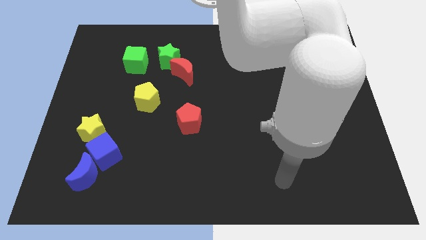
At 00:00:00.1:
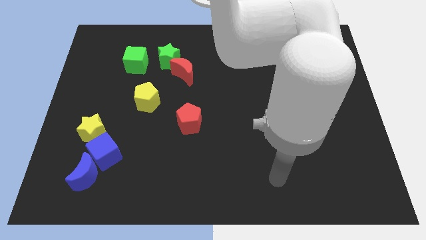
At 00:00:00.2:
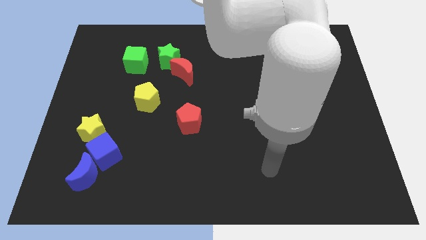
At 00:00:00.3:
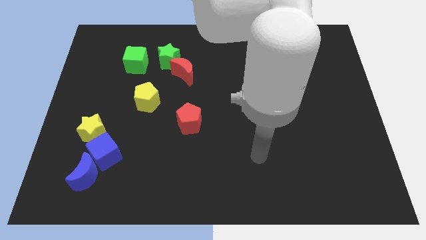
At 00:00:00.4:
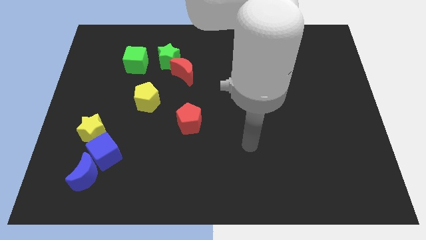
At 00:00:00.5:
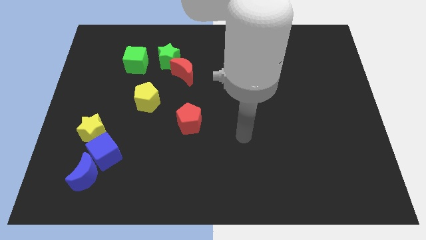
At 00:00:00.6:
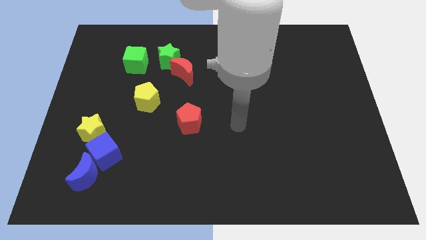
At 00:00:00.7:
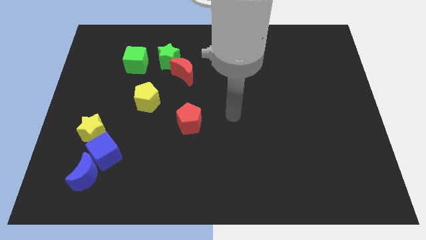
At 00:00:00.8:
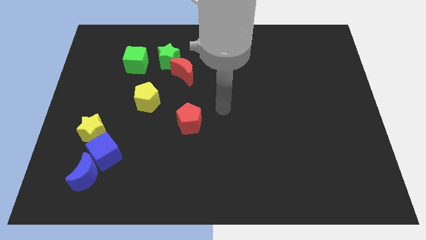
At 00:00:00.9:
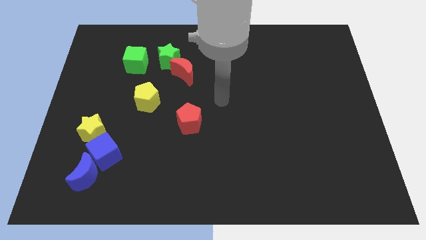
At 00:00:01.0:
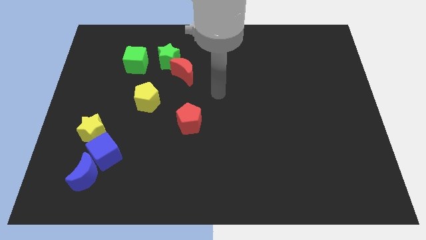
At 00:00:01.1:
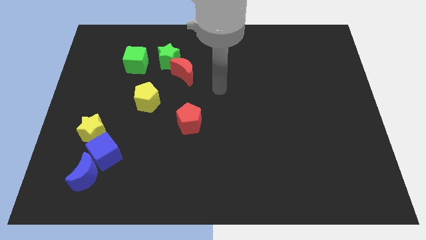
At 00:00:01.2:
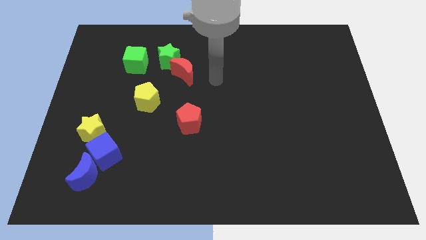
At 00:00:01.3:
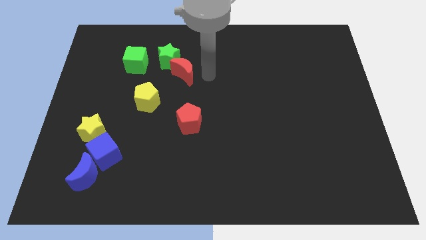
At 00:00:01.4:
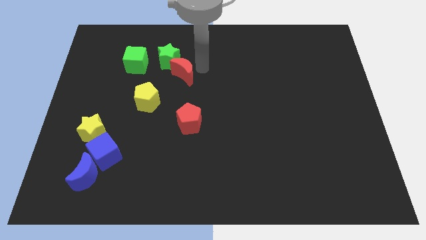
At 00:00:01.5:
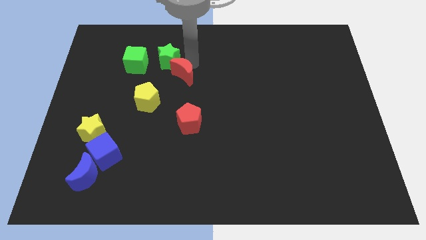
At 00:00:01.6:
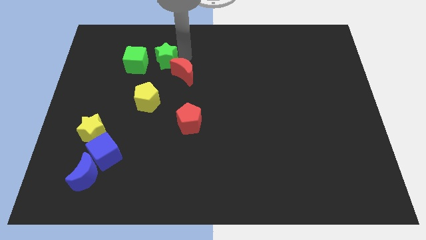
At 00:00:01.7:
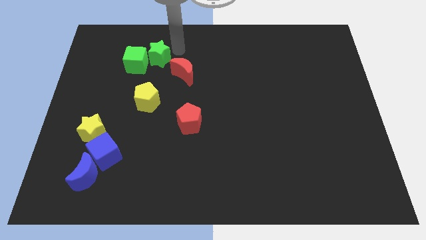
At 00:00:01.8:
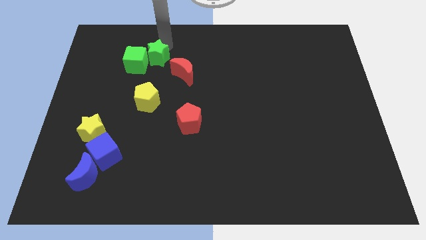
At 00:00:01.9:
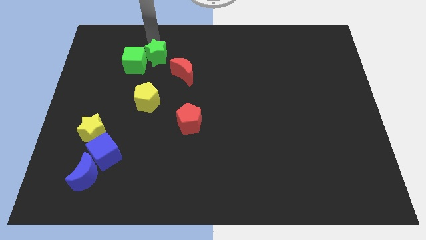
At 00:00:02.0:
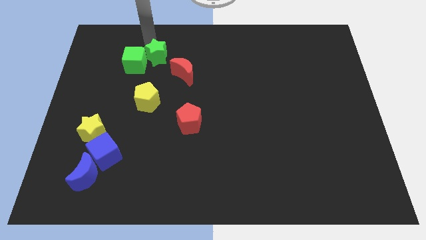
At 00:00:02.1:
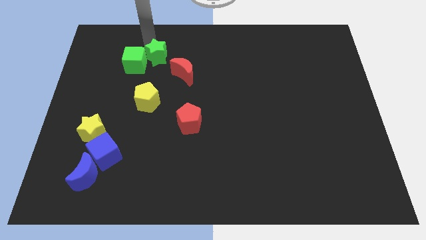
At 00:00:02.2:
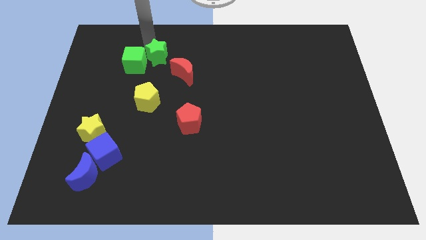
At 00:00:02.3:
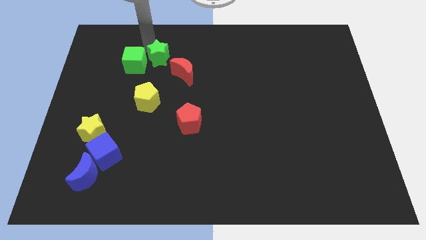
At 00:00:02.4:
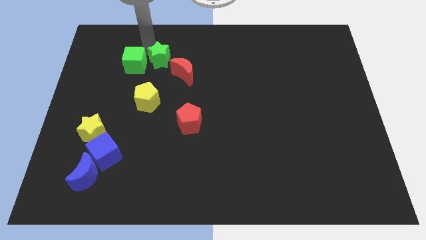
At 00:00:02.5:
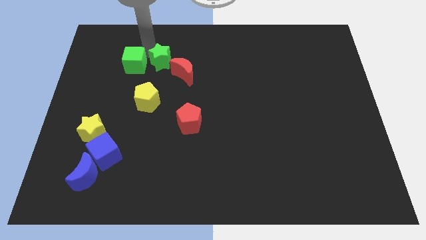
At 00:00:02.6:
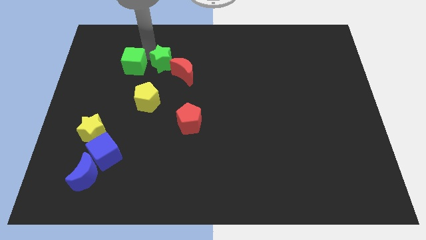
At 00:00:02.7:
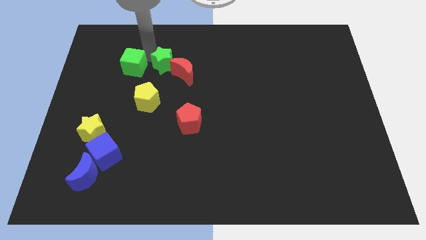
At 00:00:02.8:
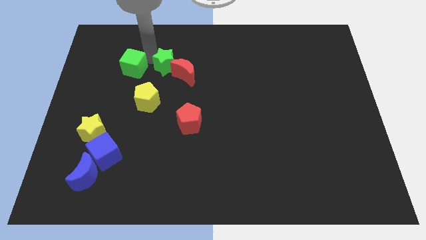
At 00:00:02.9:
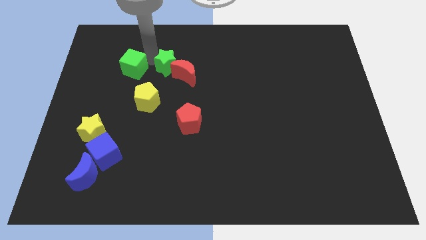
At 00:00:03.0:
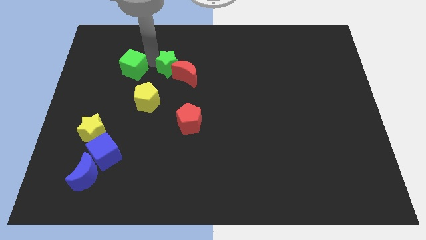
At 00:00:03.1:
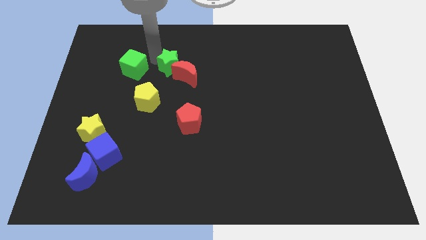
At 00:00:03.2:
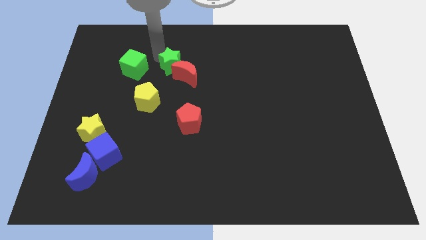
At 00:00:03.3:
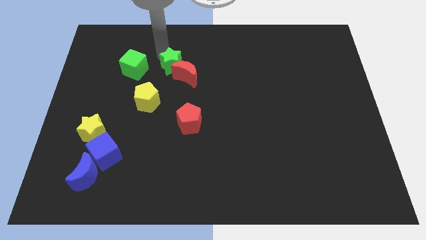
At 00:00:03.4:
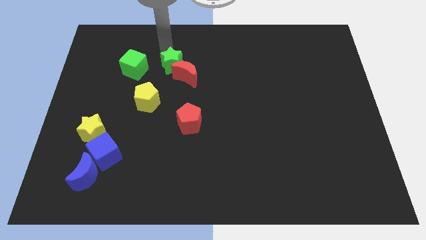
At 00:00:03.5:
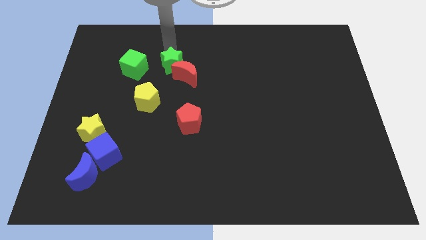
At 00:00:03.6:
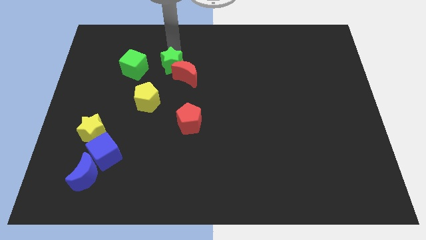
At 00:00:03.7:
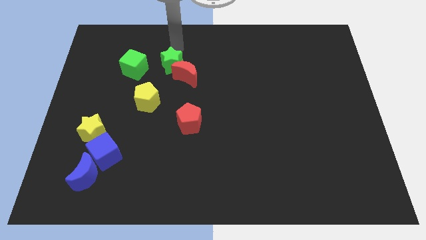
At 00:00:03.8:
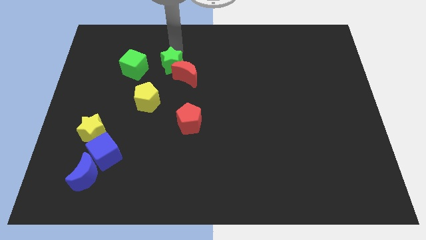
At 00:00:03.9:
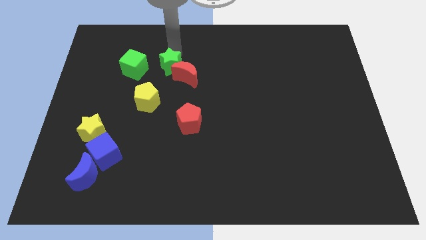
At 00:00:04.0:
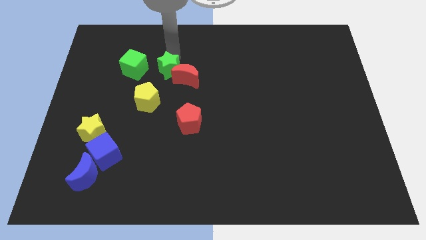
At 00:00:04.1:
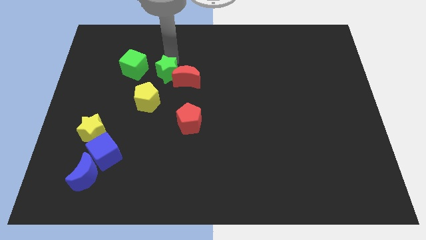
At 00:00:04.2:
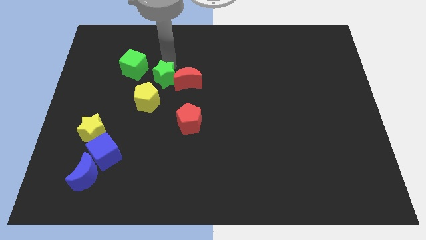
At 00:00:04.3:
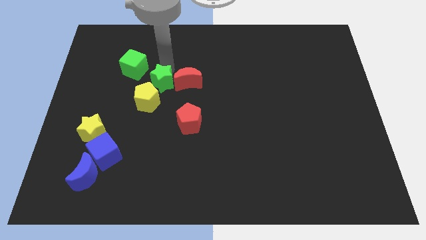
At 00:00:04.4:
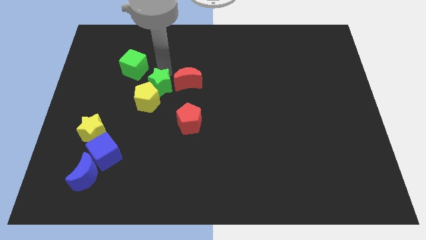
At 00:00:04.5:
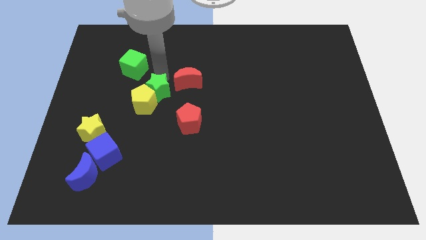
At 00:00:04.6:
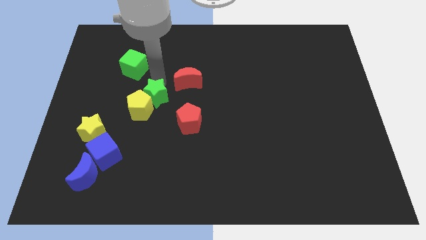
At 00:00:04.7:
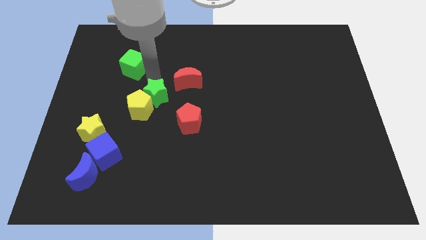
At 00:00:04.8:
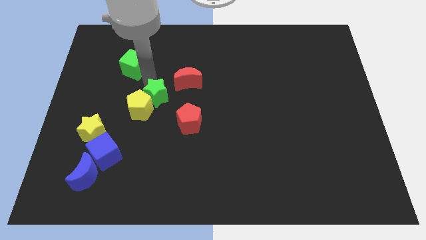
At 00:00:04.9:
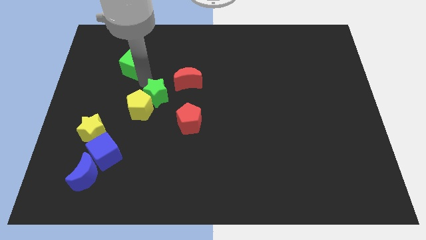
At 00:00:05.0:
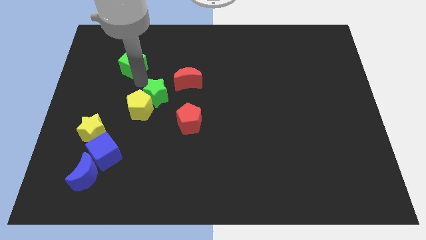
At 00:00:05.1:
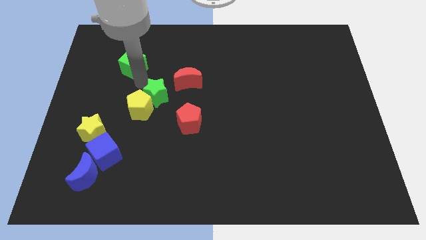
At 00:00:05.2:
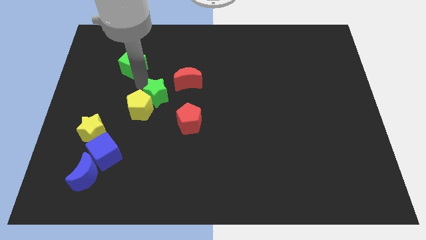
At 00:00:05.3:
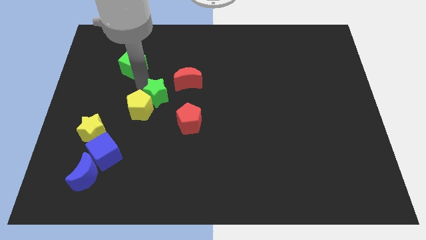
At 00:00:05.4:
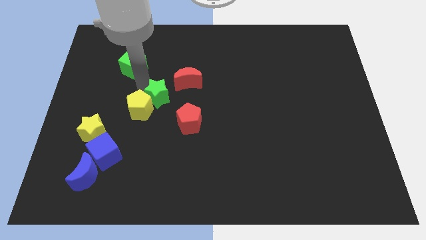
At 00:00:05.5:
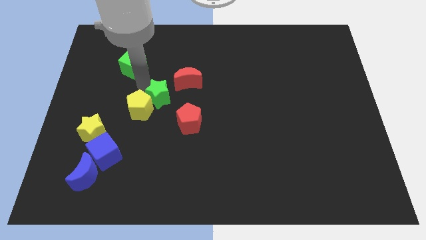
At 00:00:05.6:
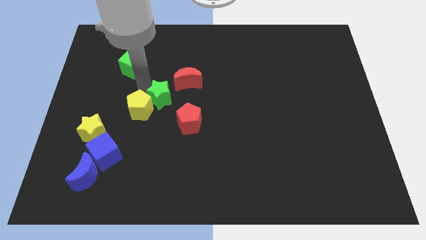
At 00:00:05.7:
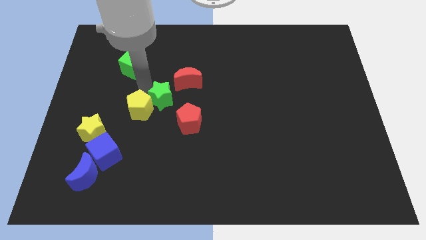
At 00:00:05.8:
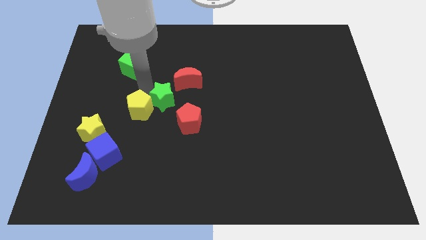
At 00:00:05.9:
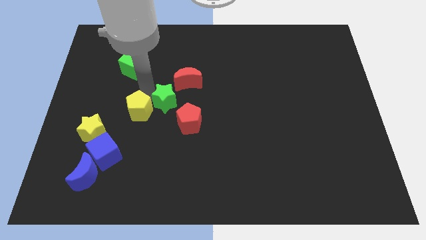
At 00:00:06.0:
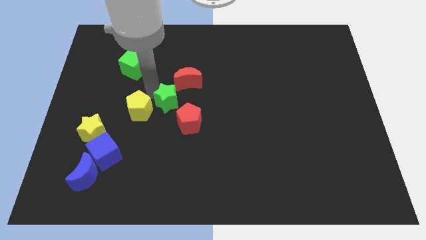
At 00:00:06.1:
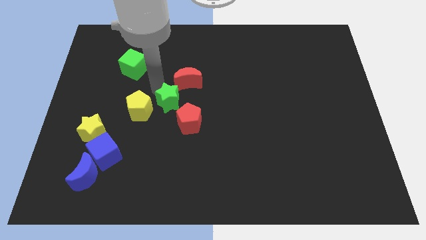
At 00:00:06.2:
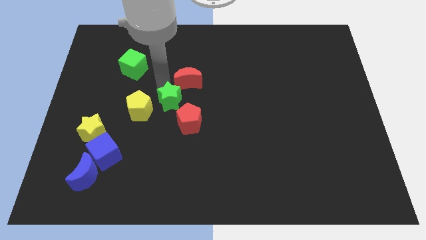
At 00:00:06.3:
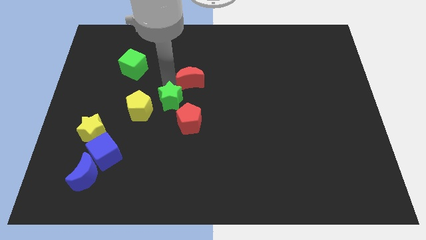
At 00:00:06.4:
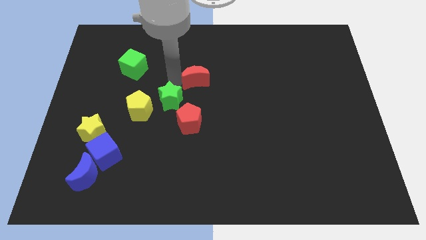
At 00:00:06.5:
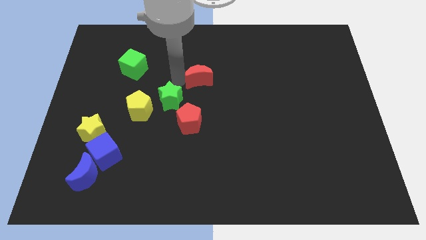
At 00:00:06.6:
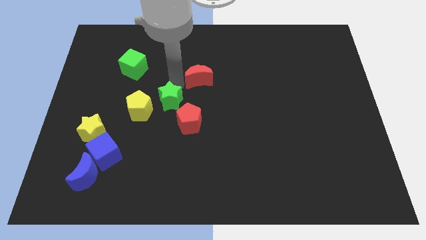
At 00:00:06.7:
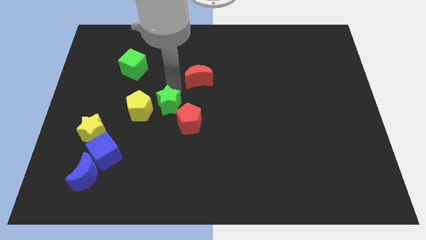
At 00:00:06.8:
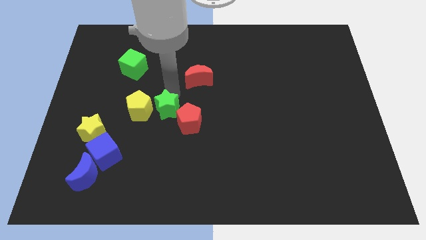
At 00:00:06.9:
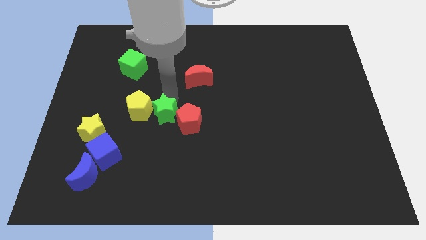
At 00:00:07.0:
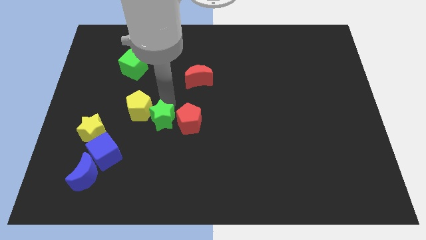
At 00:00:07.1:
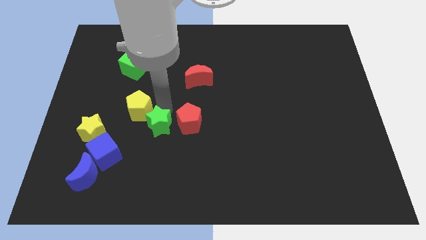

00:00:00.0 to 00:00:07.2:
push the green star down

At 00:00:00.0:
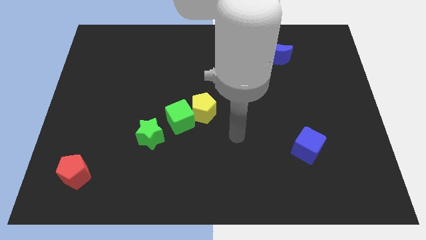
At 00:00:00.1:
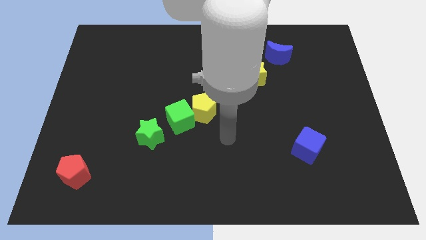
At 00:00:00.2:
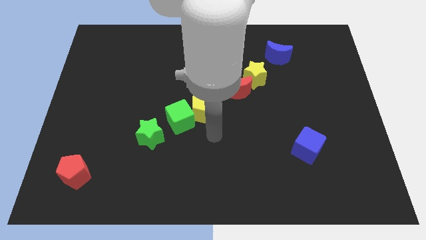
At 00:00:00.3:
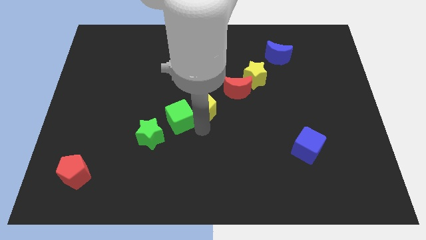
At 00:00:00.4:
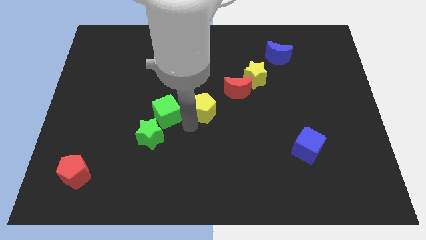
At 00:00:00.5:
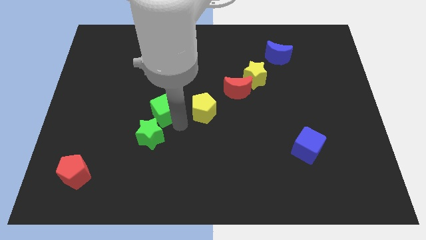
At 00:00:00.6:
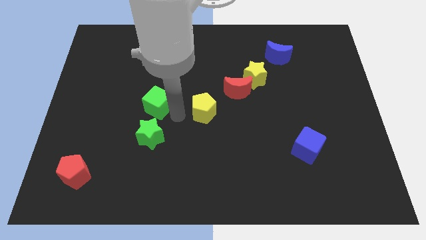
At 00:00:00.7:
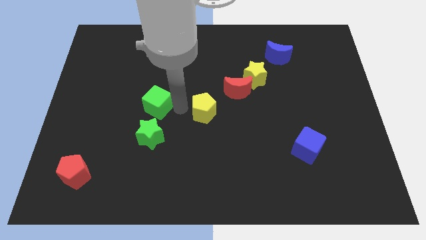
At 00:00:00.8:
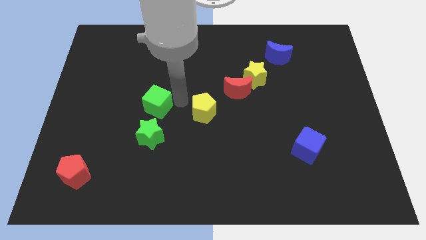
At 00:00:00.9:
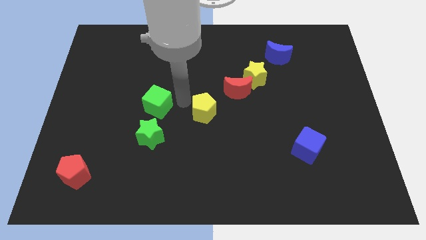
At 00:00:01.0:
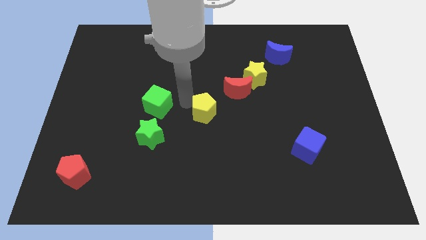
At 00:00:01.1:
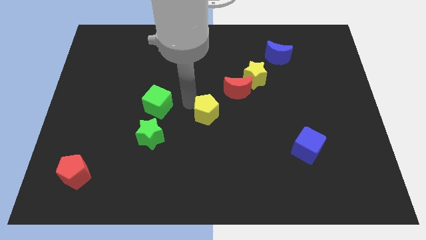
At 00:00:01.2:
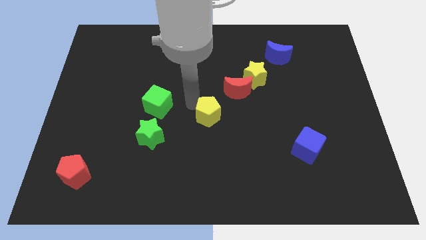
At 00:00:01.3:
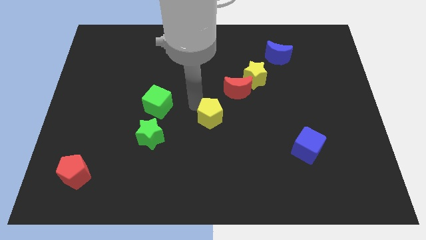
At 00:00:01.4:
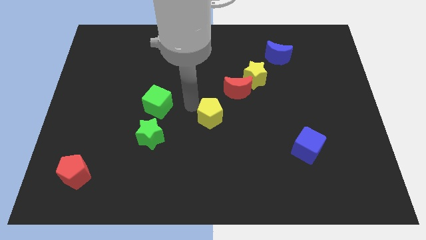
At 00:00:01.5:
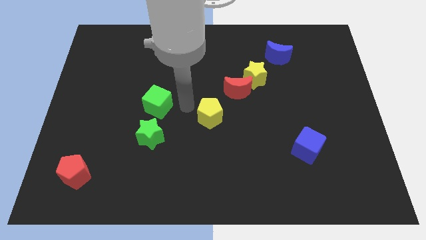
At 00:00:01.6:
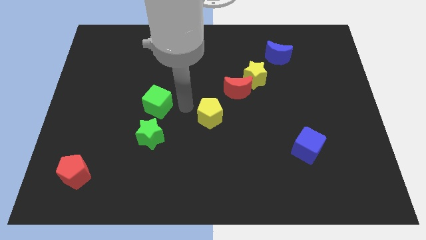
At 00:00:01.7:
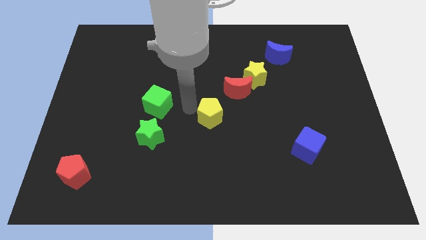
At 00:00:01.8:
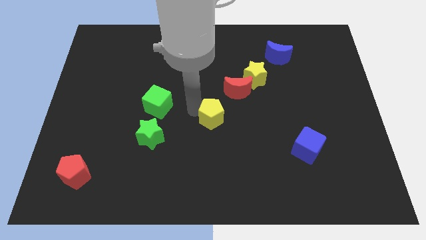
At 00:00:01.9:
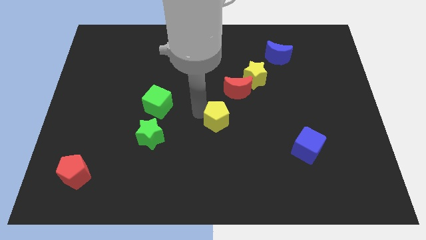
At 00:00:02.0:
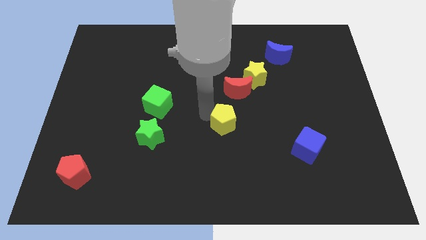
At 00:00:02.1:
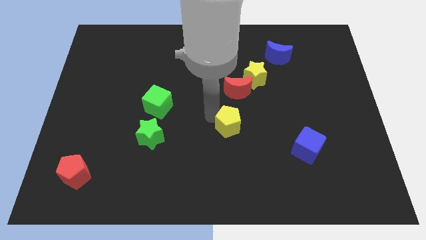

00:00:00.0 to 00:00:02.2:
slide the yellow pentagon downwards and to the right diagonally somewhat
